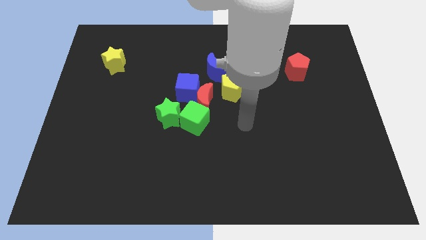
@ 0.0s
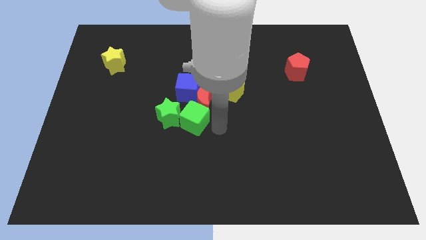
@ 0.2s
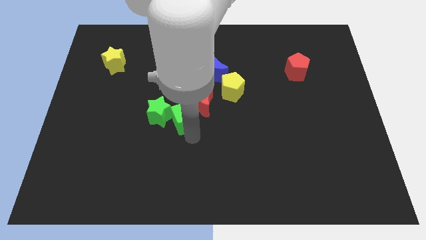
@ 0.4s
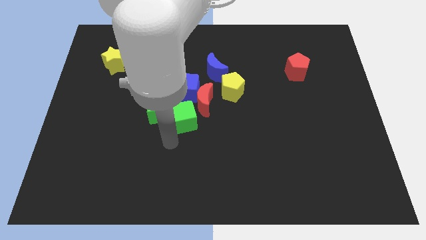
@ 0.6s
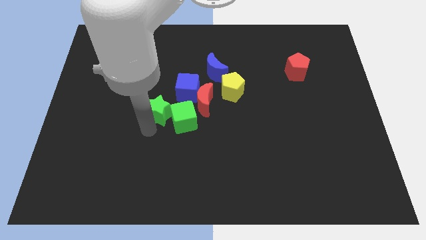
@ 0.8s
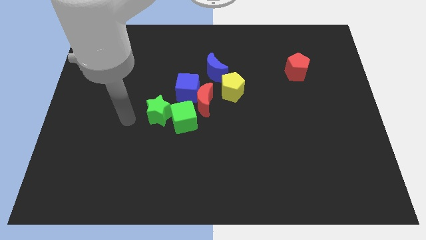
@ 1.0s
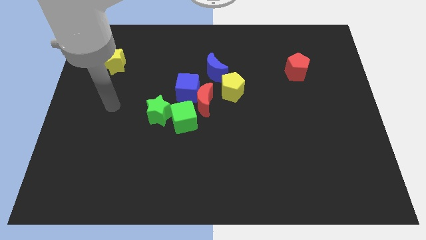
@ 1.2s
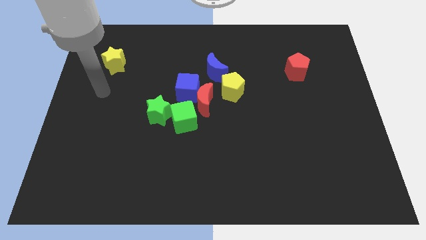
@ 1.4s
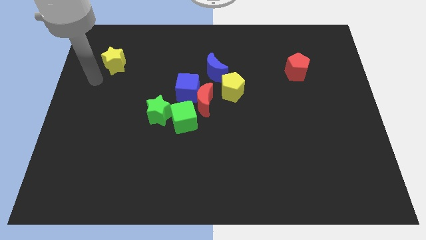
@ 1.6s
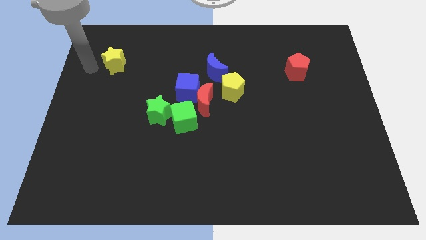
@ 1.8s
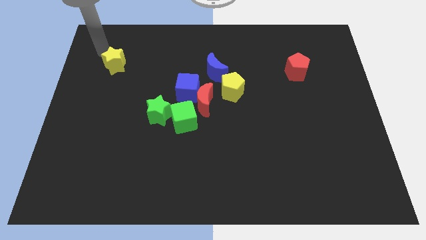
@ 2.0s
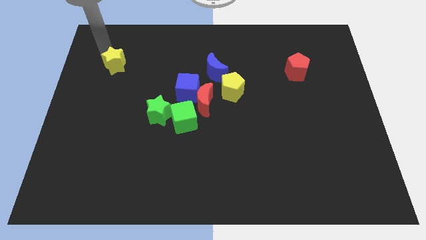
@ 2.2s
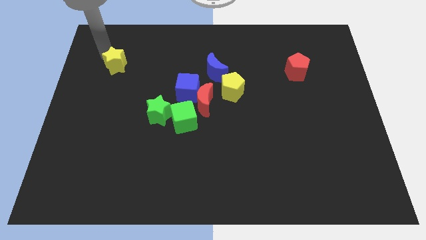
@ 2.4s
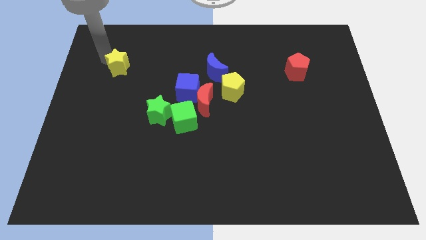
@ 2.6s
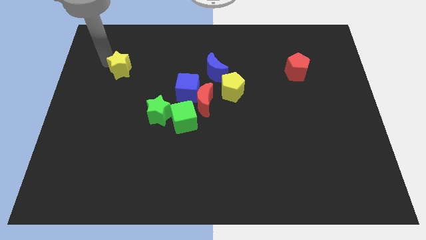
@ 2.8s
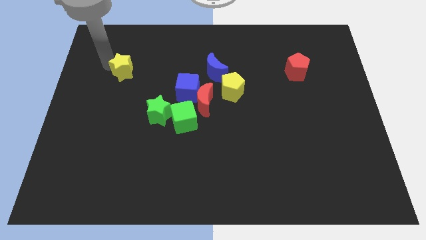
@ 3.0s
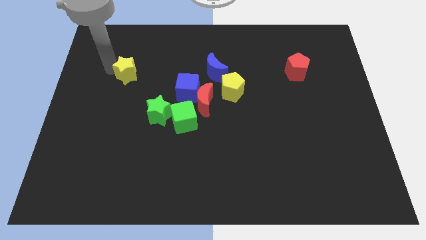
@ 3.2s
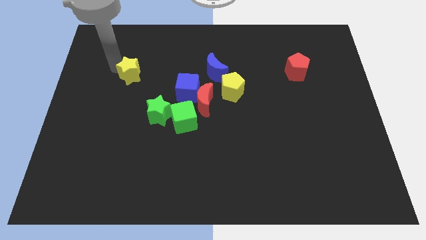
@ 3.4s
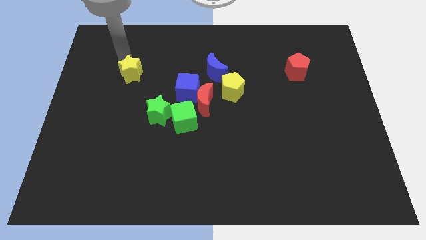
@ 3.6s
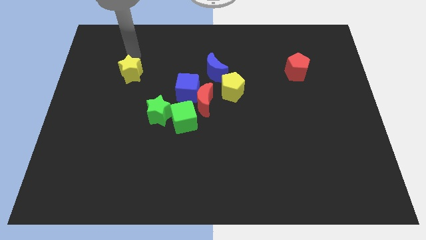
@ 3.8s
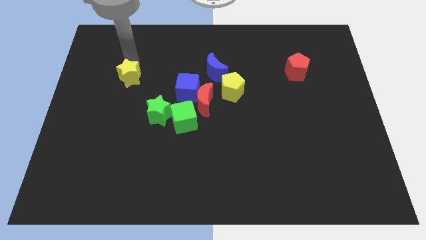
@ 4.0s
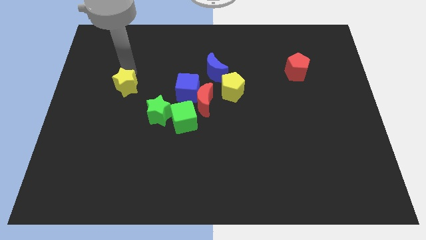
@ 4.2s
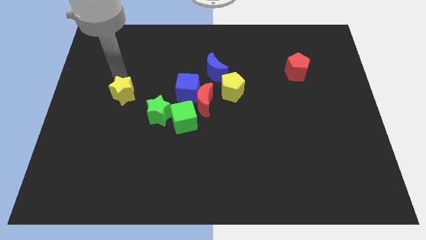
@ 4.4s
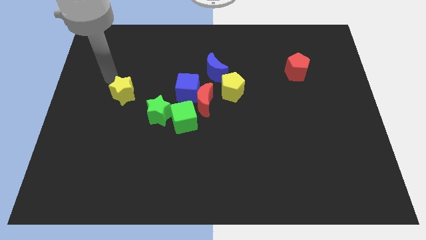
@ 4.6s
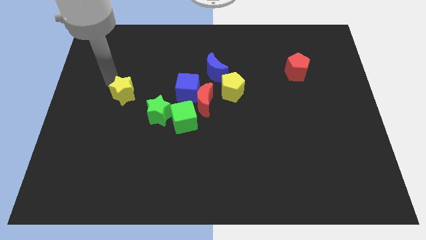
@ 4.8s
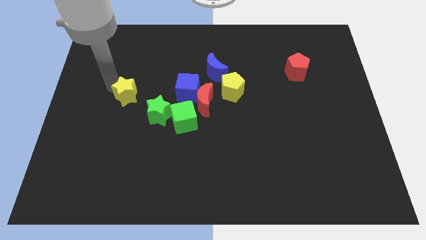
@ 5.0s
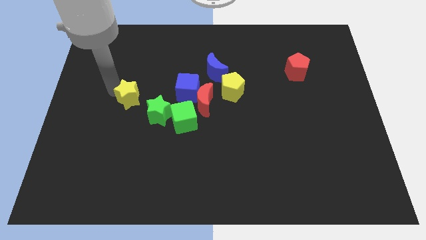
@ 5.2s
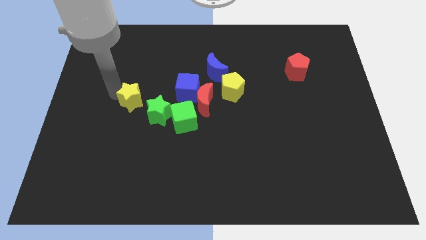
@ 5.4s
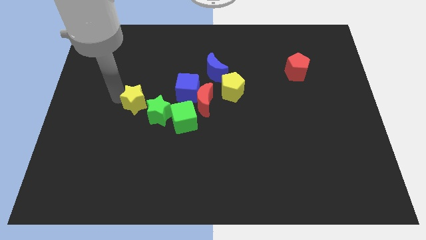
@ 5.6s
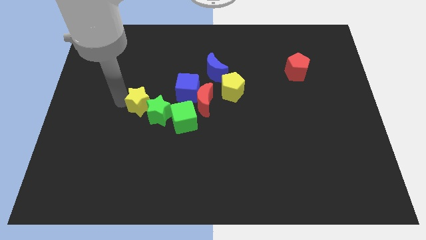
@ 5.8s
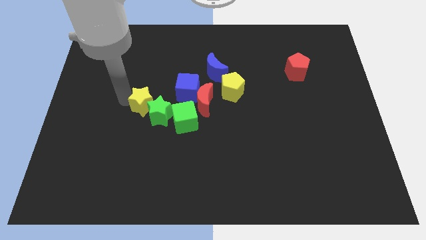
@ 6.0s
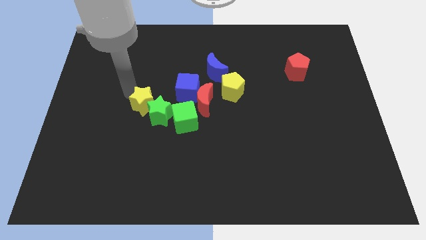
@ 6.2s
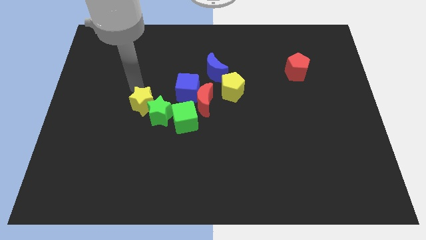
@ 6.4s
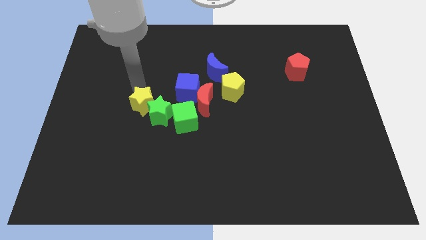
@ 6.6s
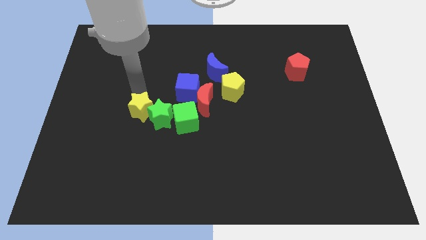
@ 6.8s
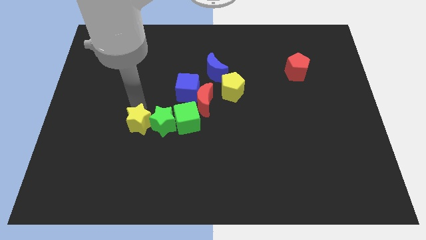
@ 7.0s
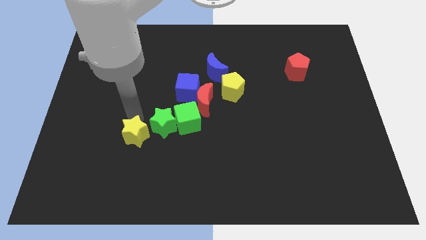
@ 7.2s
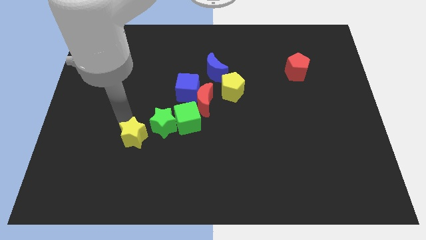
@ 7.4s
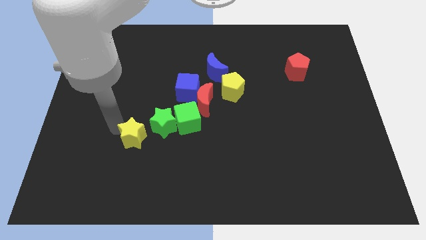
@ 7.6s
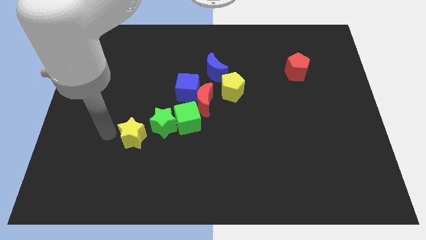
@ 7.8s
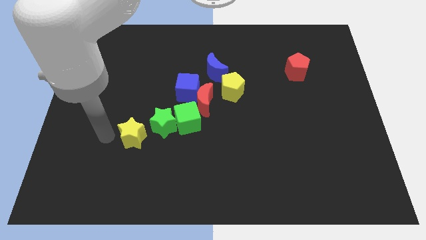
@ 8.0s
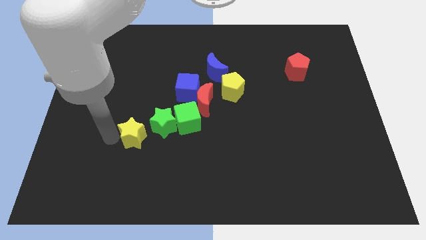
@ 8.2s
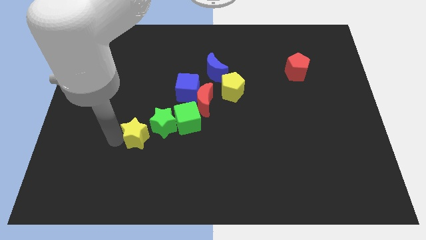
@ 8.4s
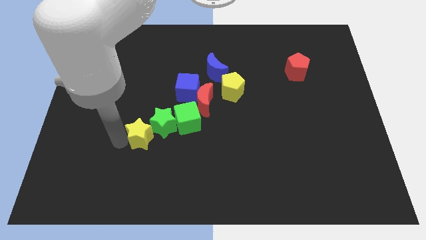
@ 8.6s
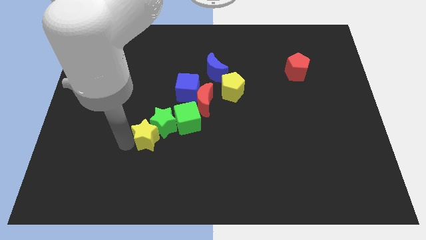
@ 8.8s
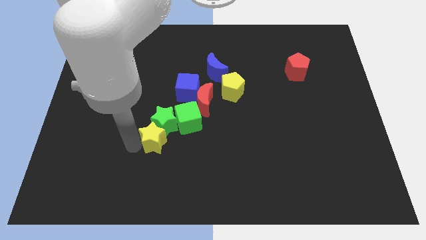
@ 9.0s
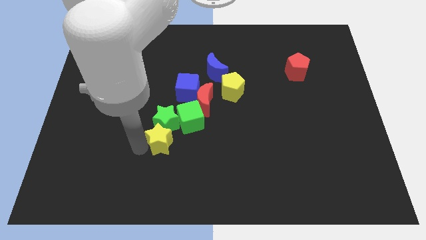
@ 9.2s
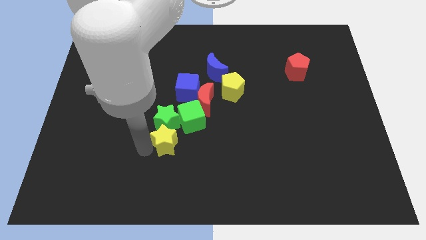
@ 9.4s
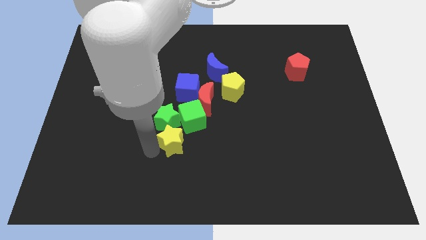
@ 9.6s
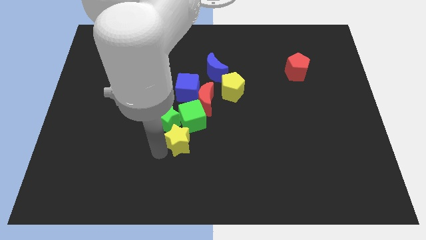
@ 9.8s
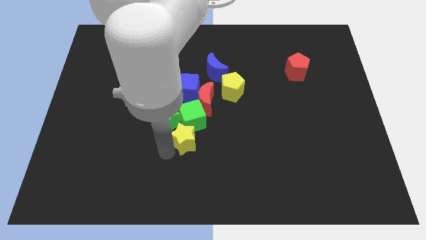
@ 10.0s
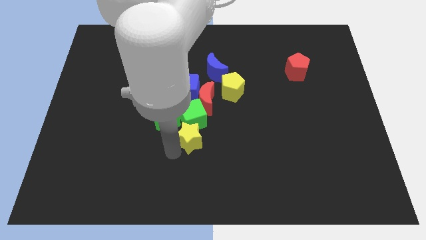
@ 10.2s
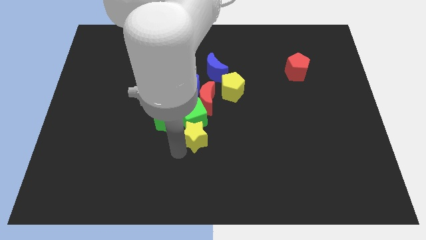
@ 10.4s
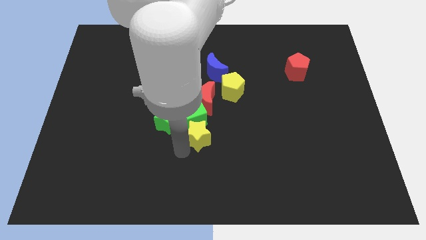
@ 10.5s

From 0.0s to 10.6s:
push the yellow star to the right side of the green star

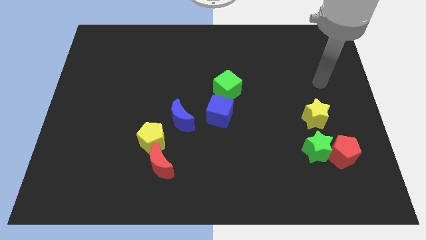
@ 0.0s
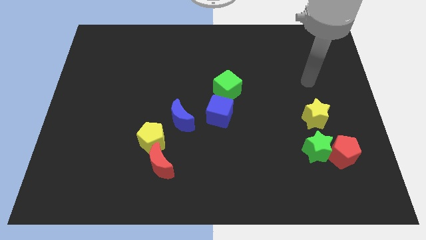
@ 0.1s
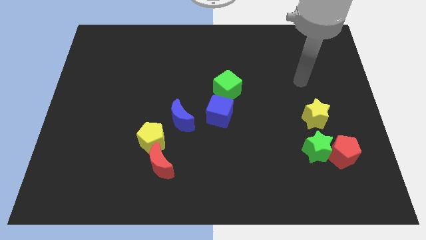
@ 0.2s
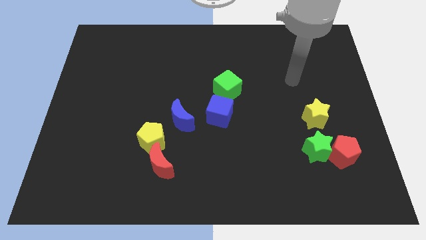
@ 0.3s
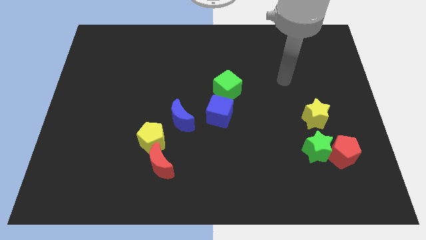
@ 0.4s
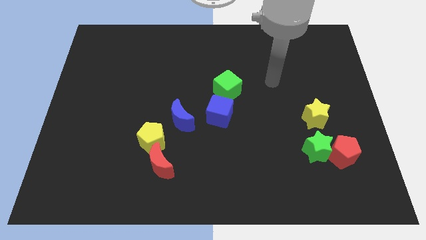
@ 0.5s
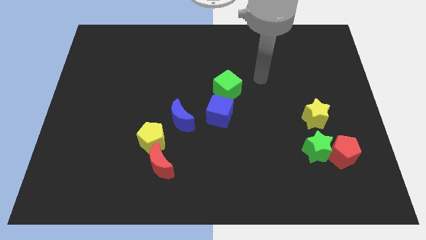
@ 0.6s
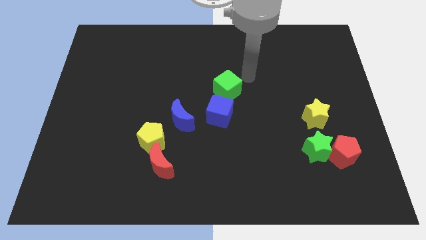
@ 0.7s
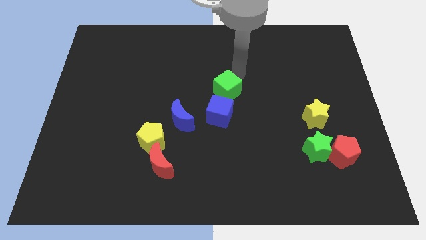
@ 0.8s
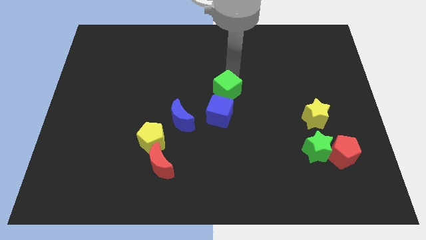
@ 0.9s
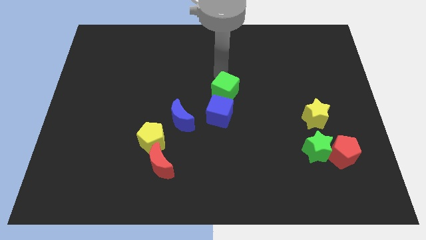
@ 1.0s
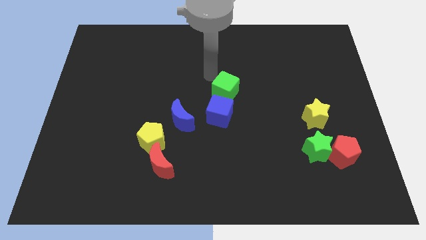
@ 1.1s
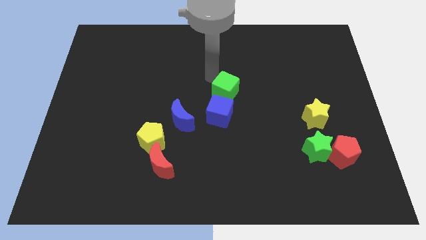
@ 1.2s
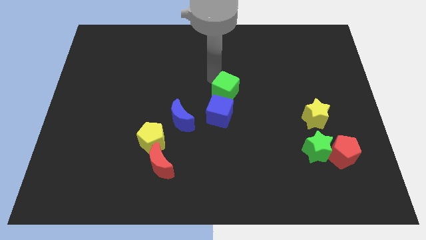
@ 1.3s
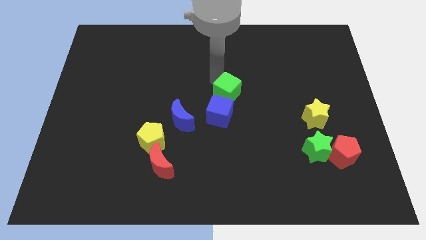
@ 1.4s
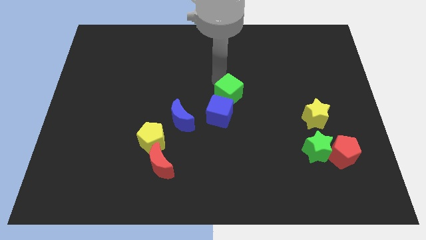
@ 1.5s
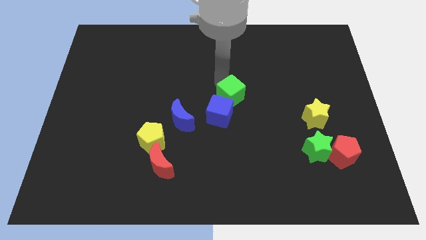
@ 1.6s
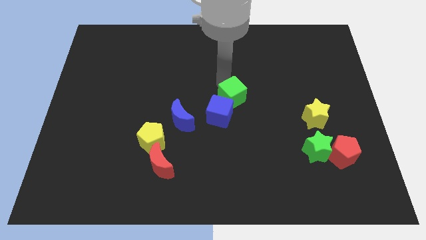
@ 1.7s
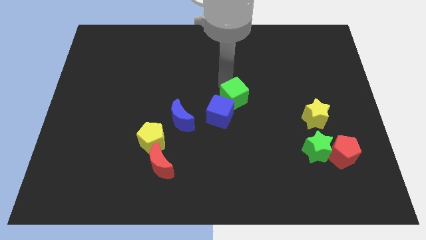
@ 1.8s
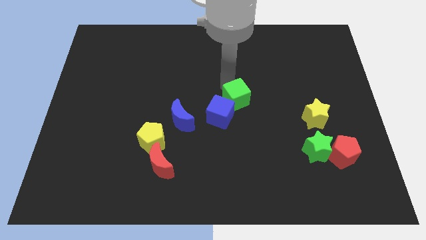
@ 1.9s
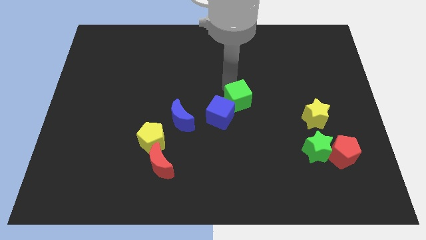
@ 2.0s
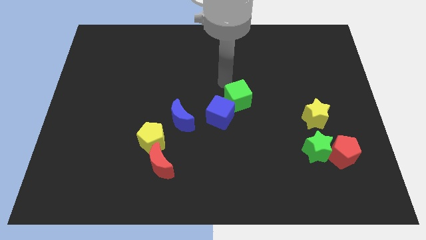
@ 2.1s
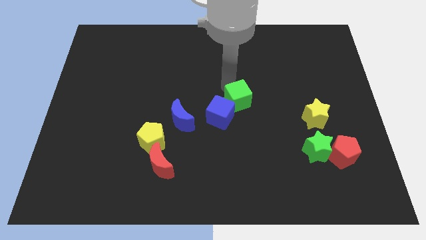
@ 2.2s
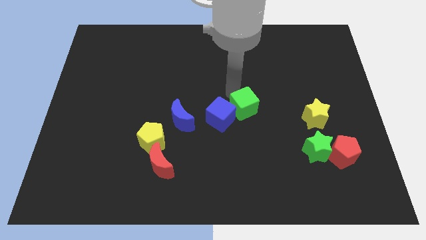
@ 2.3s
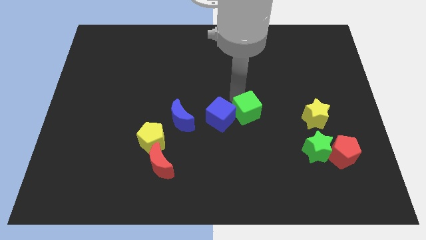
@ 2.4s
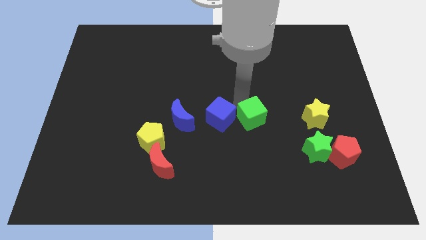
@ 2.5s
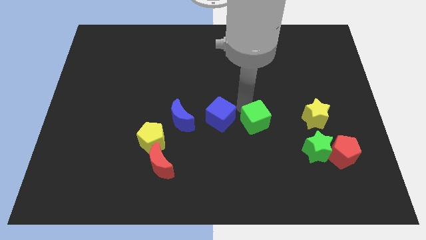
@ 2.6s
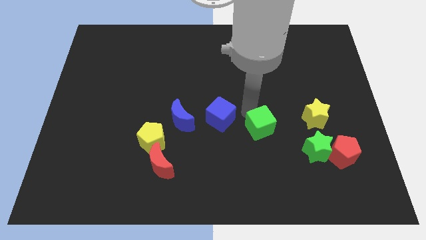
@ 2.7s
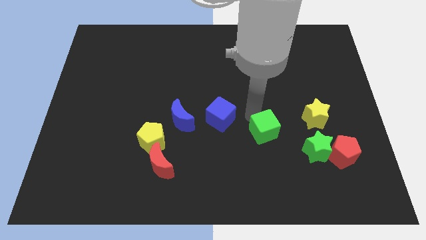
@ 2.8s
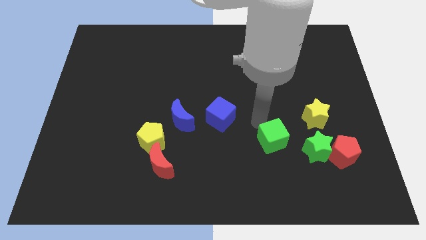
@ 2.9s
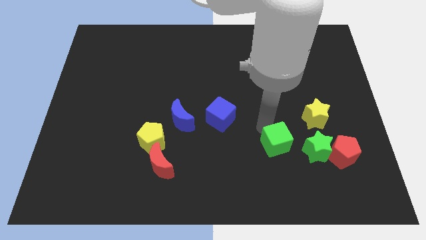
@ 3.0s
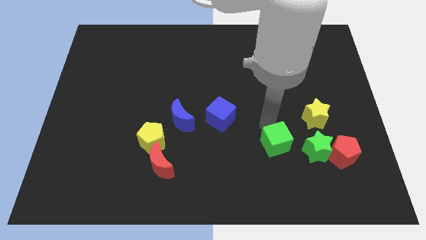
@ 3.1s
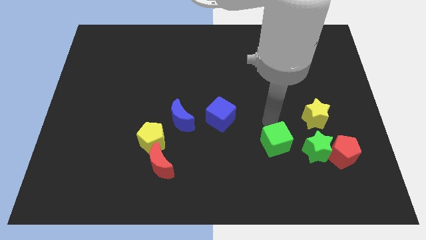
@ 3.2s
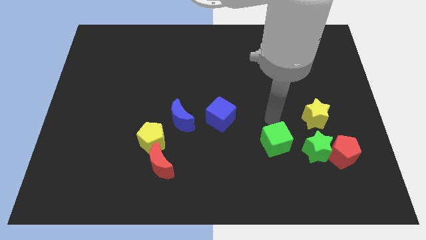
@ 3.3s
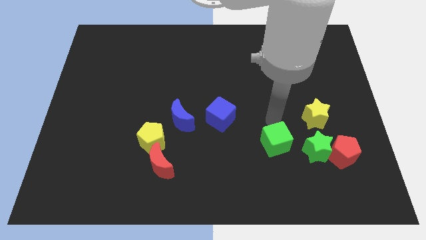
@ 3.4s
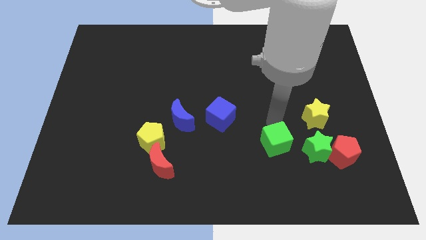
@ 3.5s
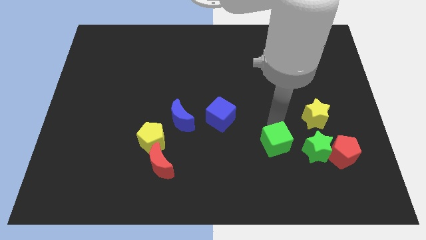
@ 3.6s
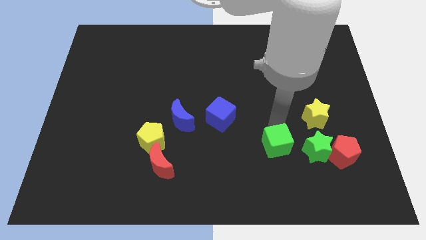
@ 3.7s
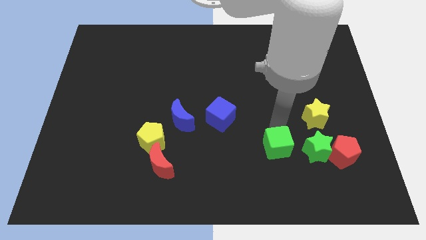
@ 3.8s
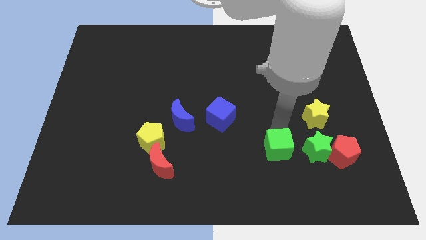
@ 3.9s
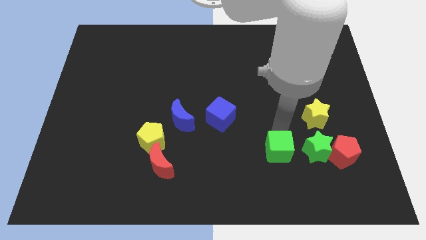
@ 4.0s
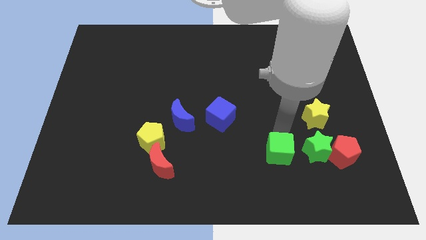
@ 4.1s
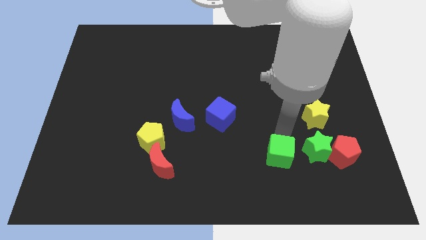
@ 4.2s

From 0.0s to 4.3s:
slide the green cube diagonally down and to the left of the green star
